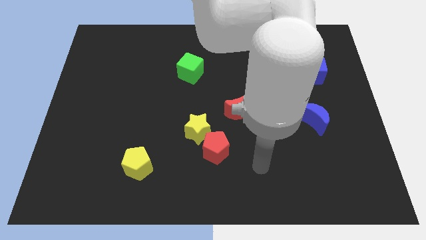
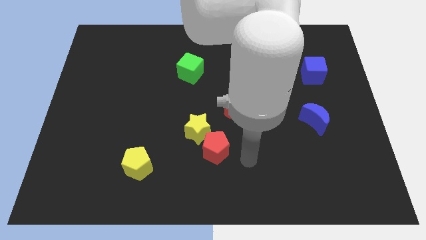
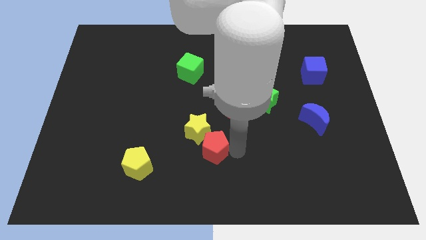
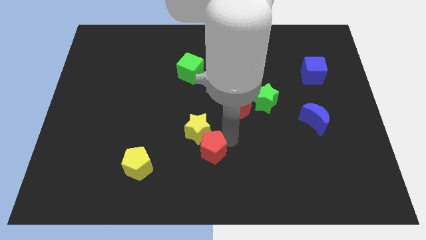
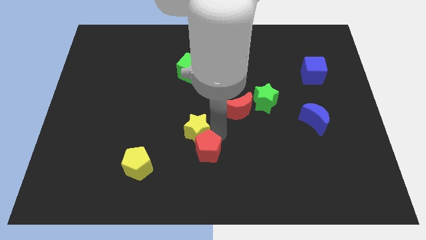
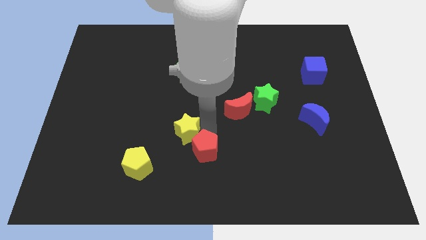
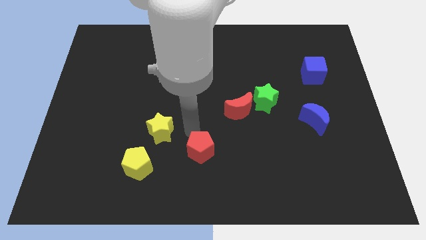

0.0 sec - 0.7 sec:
separate the red pentagon from the yellow star

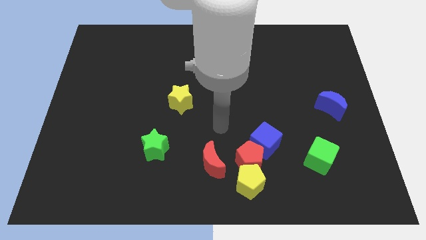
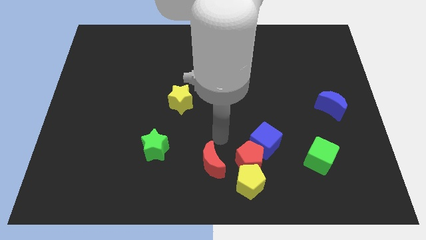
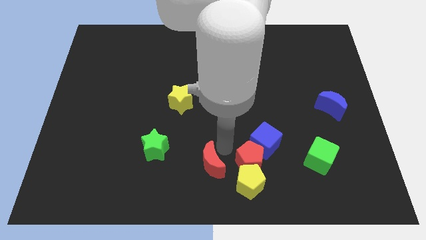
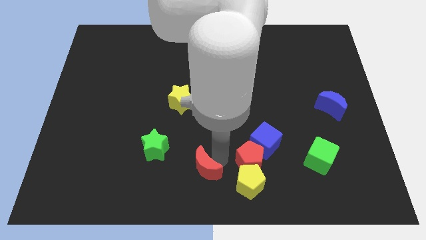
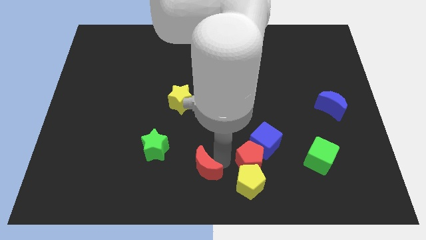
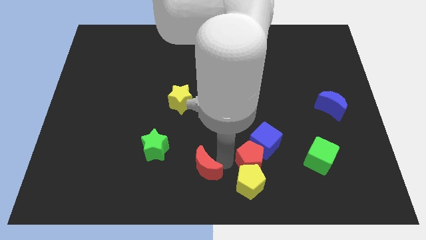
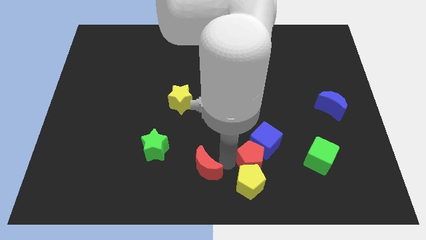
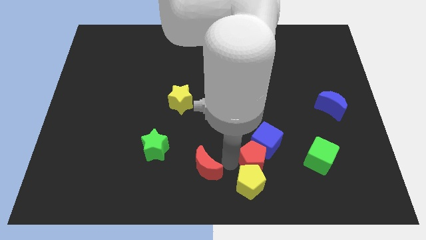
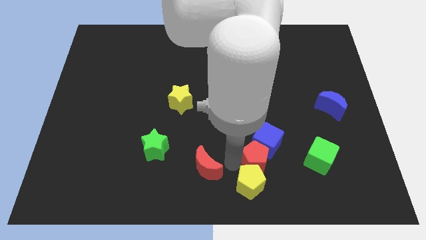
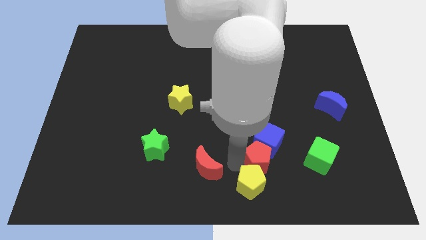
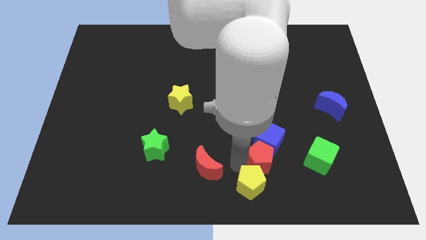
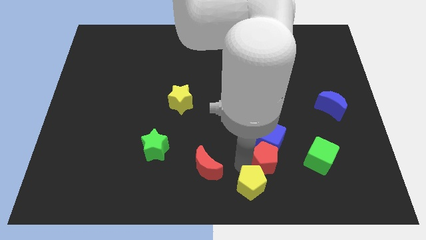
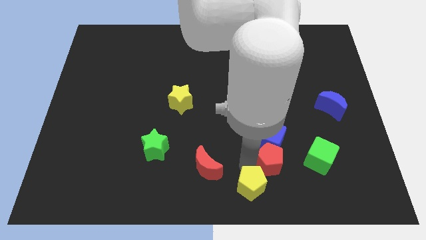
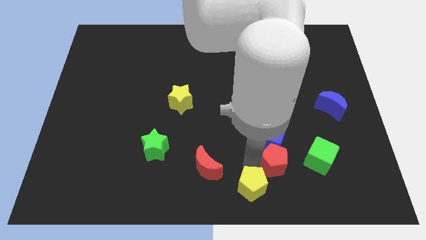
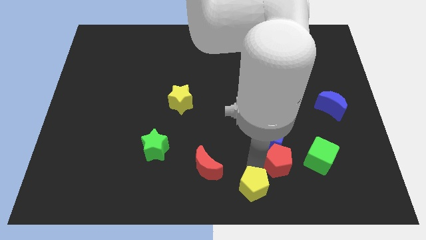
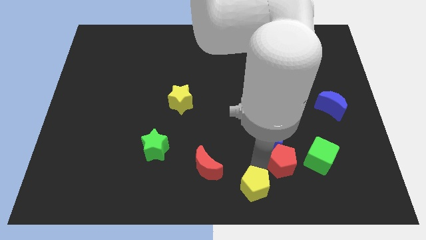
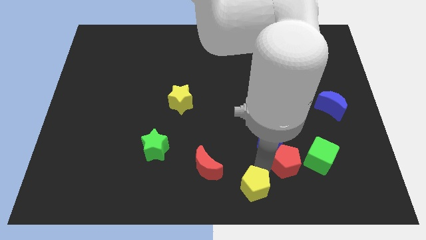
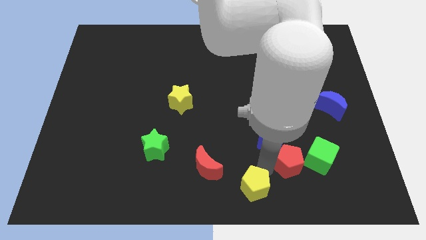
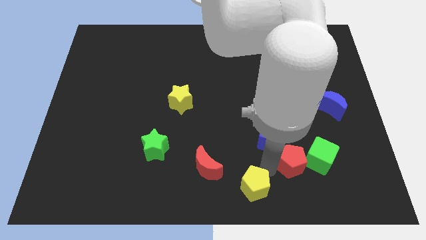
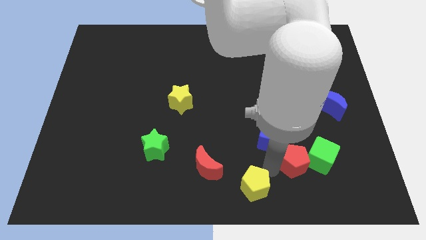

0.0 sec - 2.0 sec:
separate the red pentagon from the group of blocks

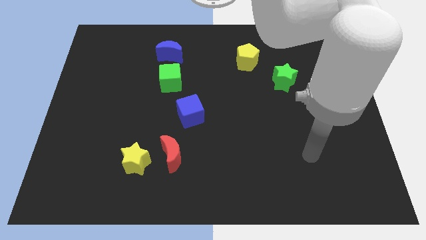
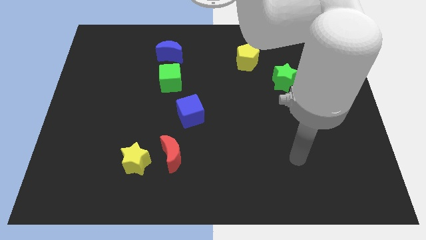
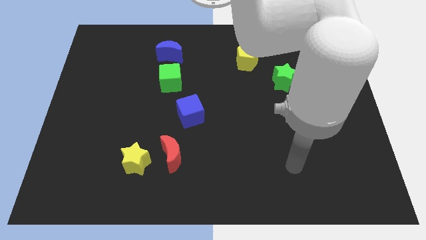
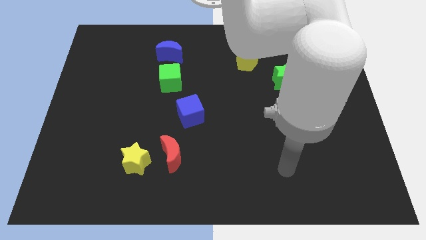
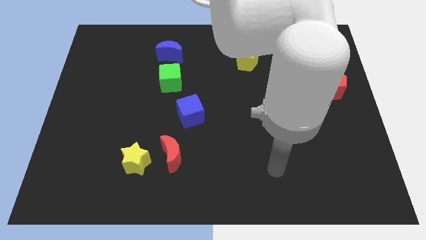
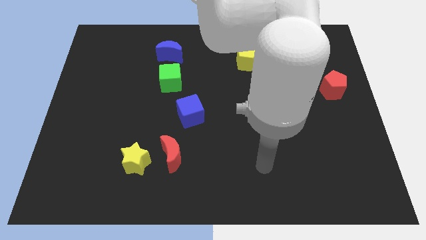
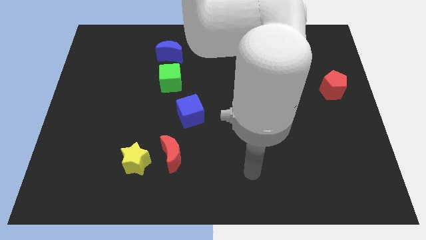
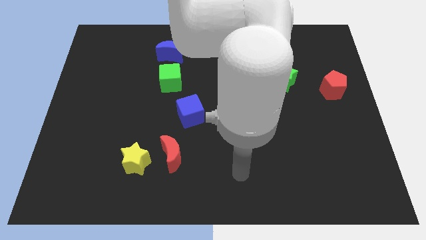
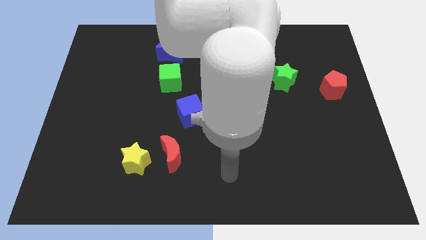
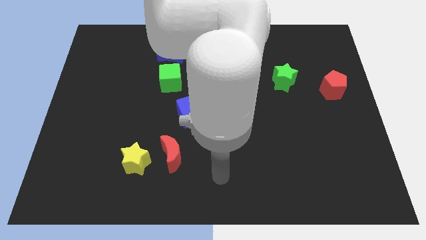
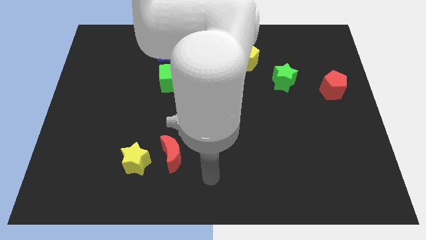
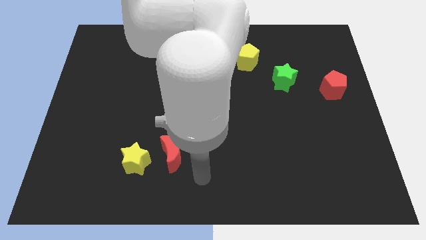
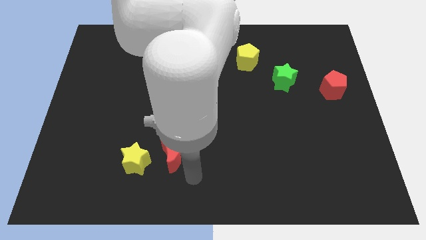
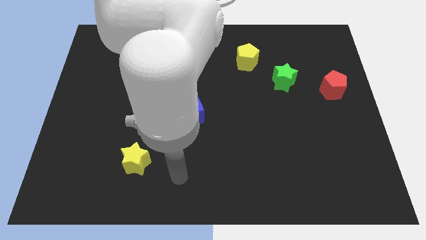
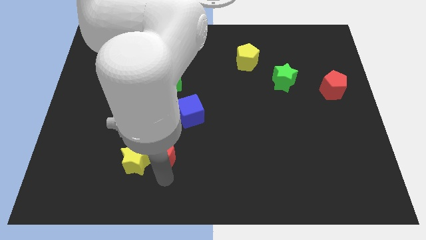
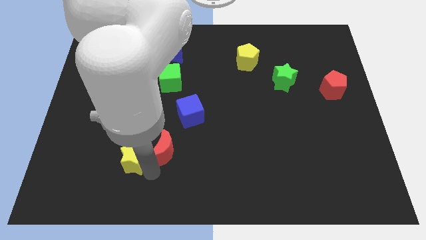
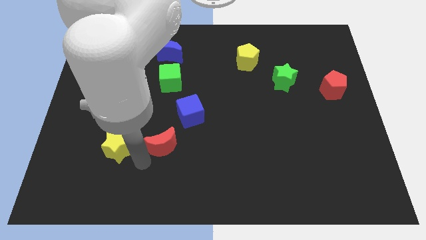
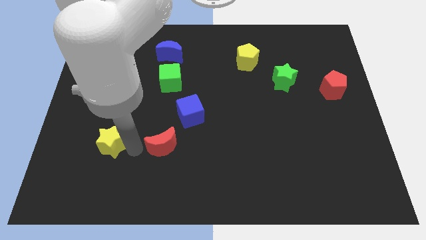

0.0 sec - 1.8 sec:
pull the red moon apart from the yellow star

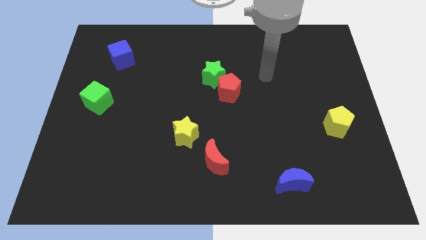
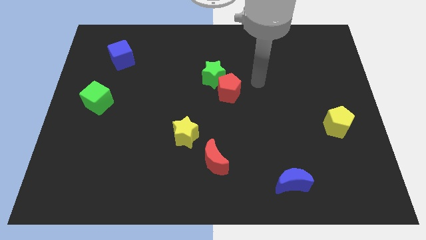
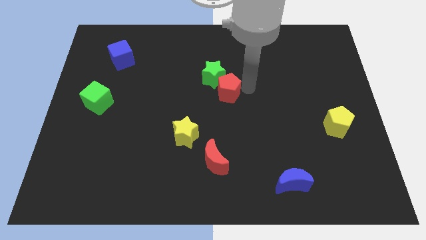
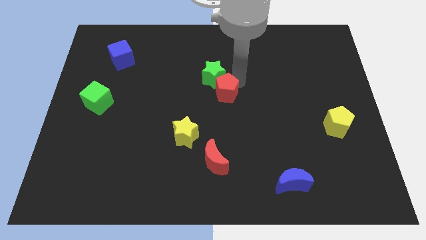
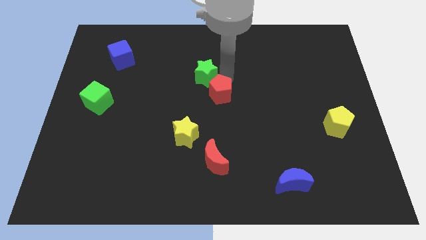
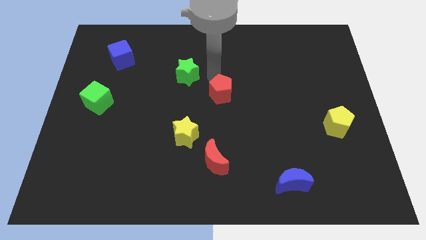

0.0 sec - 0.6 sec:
pull the red pentagon apart from the green star

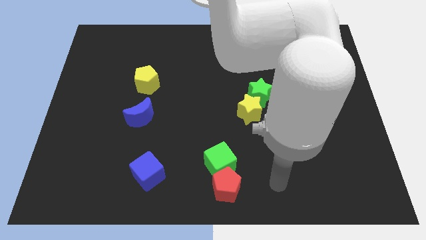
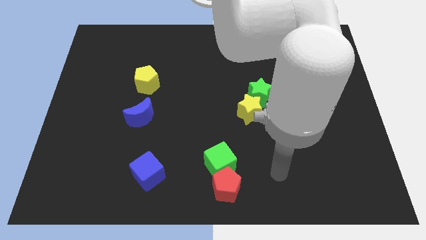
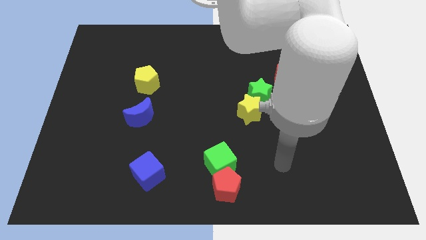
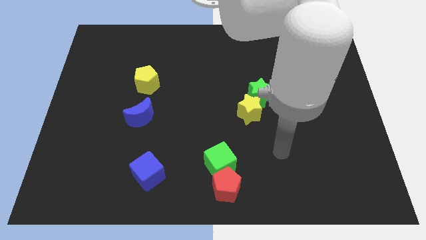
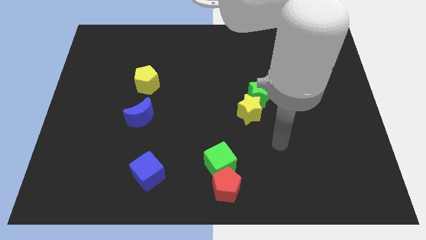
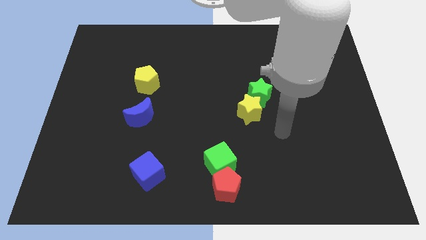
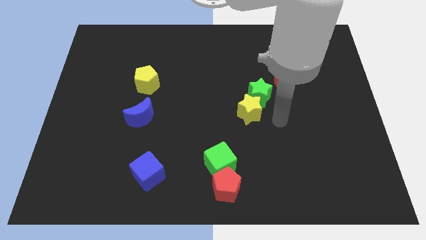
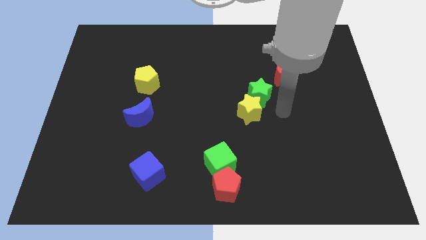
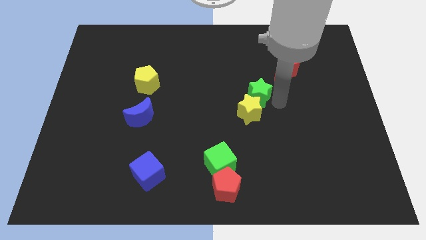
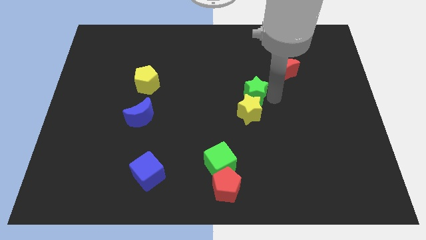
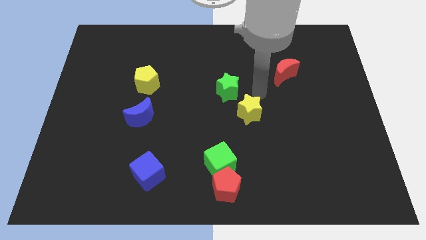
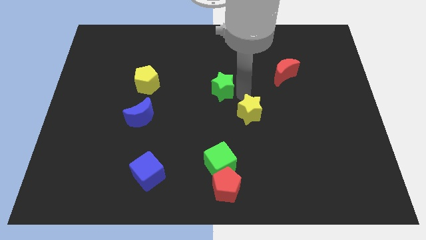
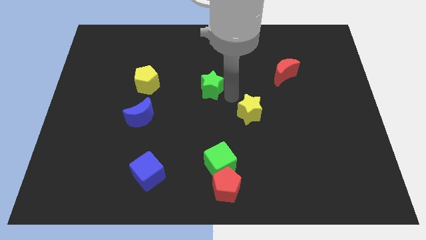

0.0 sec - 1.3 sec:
separate the yellow star from the green star

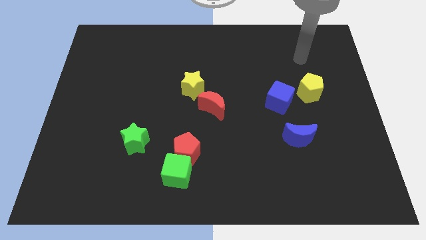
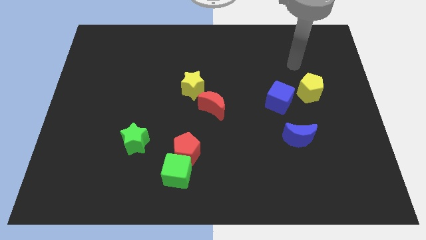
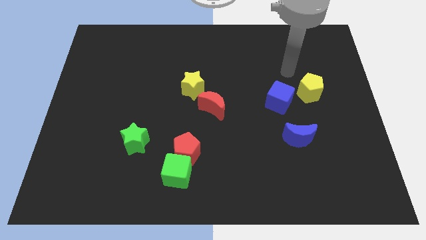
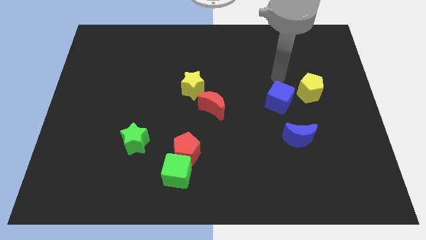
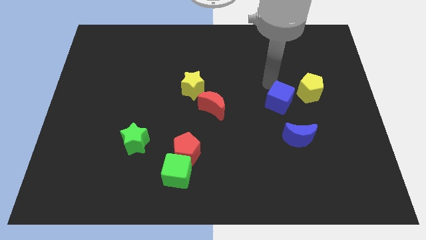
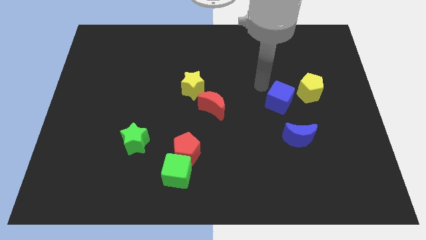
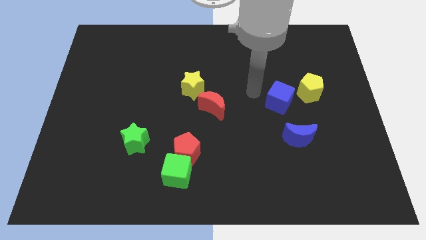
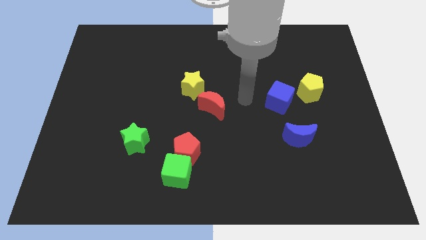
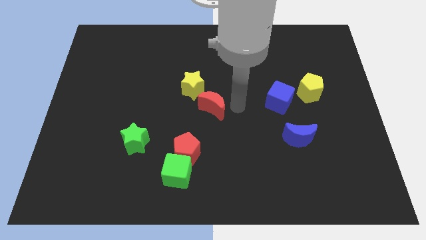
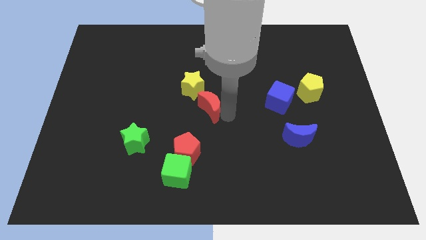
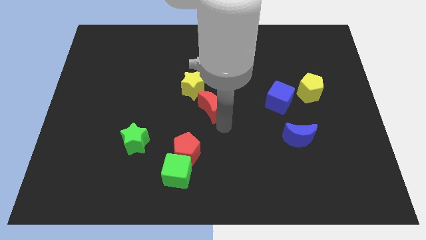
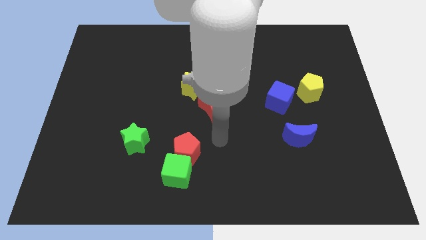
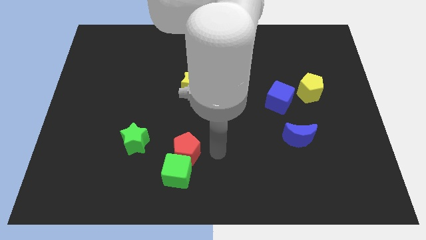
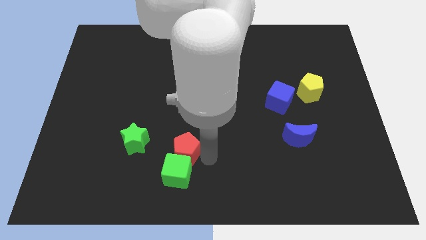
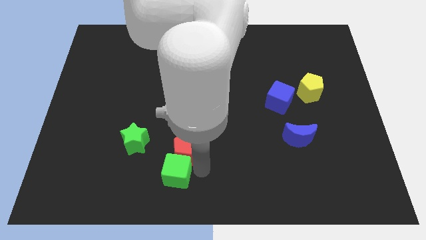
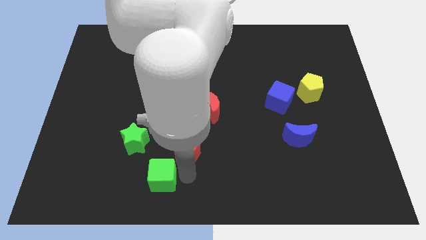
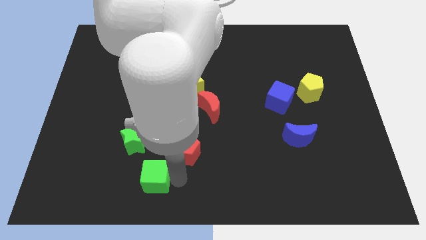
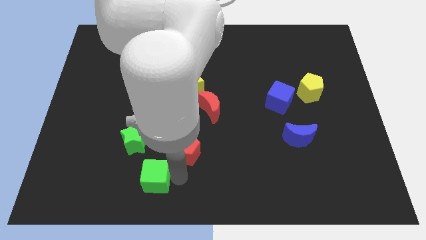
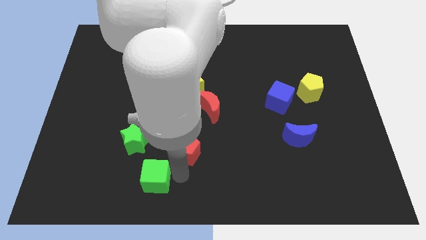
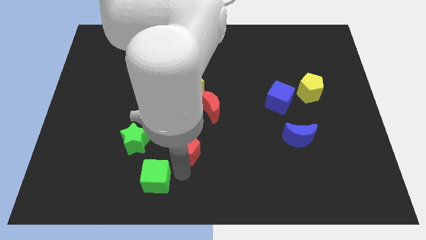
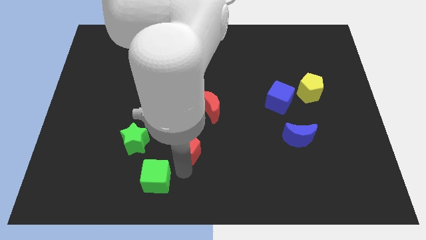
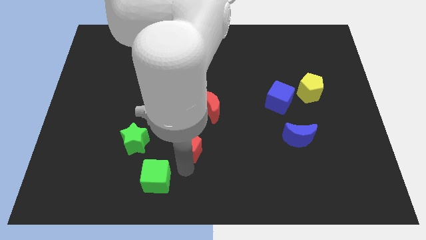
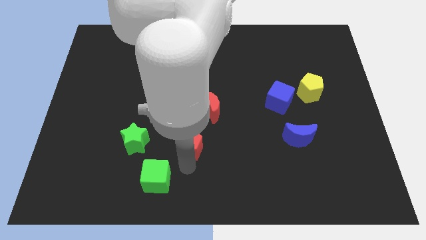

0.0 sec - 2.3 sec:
separate the red pentagon from the green cube

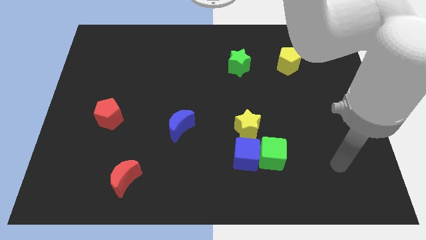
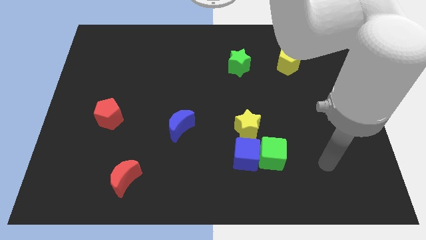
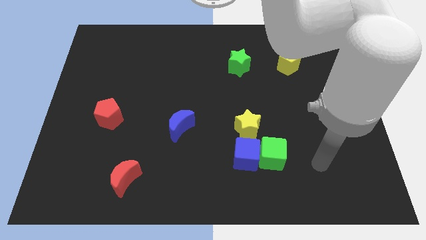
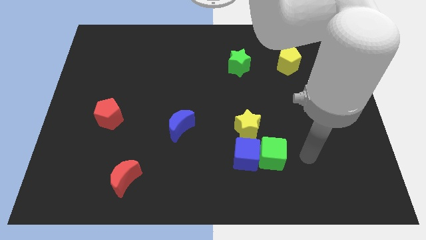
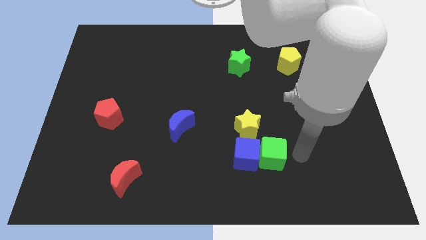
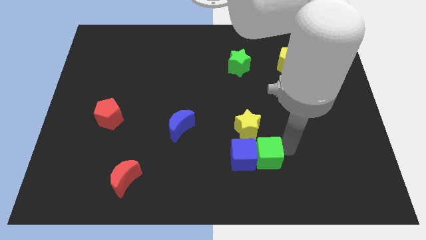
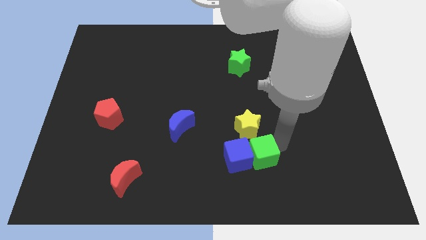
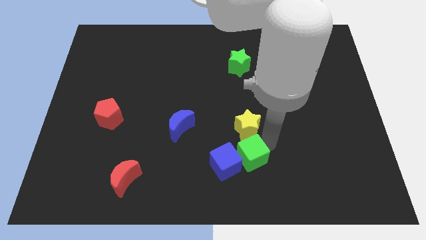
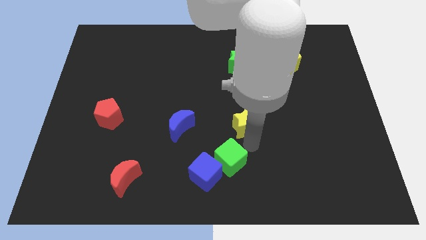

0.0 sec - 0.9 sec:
move the blue cube away from the green cube and yellow star
